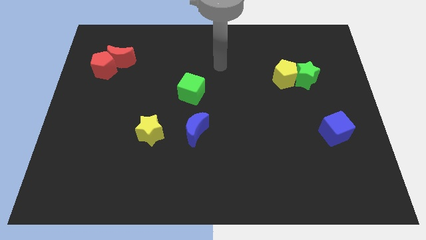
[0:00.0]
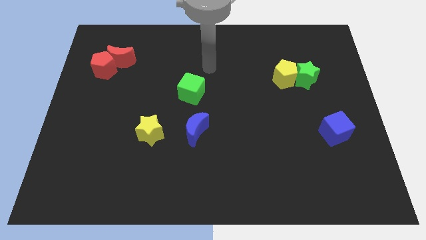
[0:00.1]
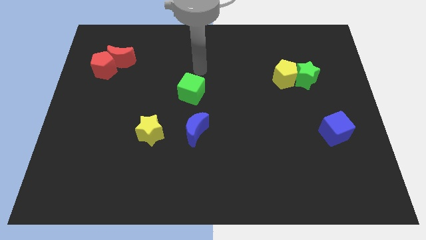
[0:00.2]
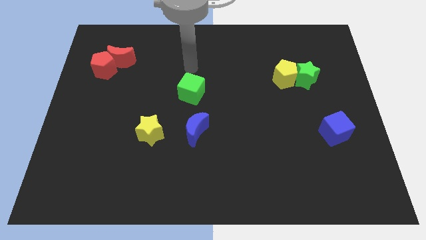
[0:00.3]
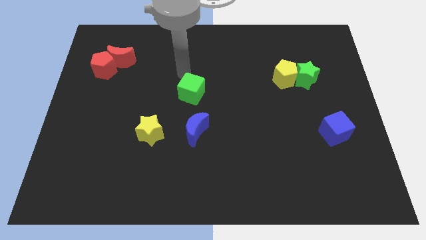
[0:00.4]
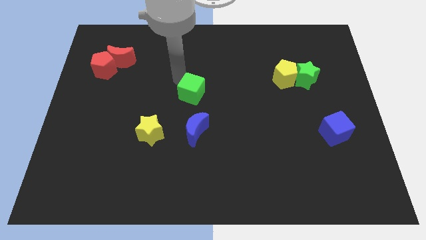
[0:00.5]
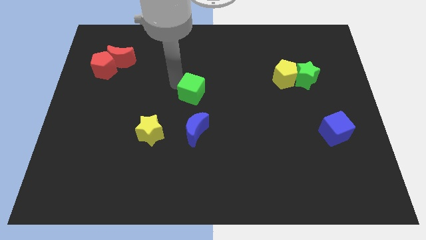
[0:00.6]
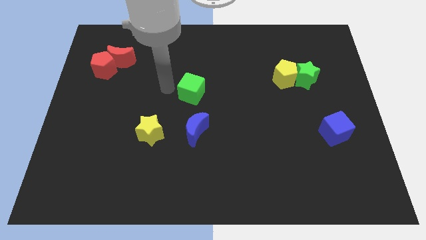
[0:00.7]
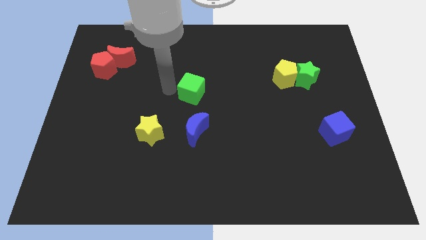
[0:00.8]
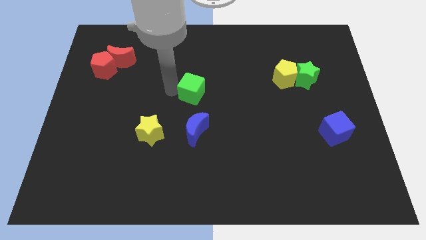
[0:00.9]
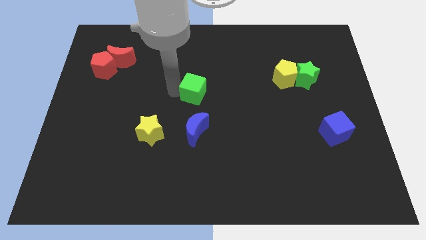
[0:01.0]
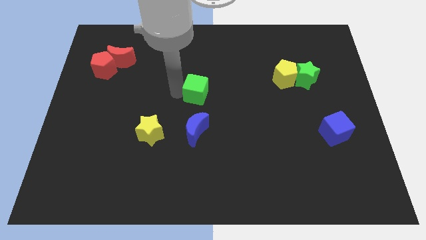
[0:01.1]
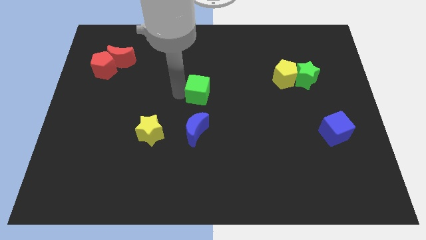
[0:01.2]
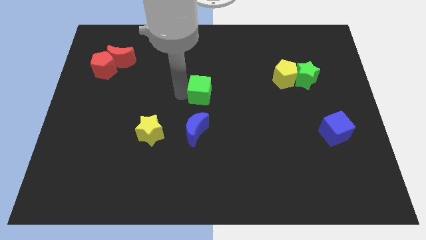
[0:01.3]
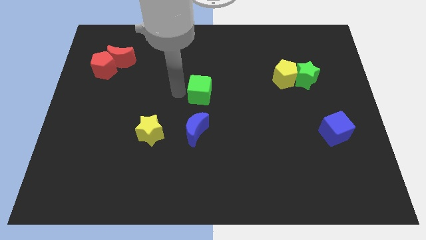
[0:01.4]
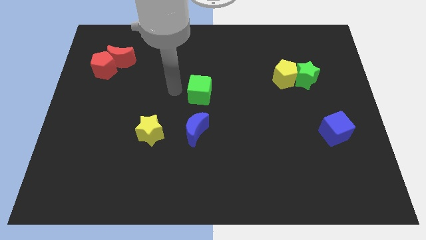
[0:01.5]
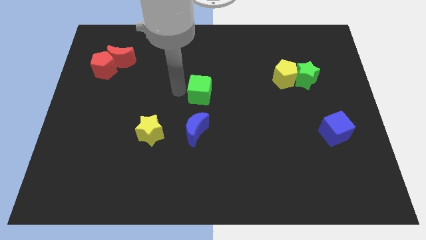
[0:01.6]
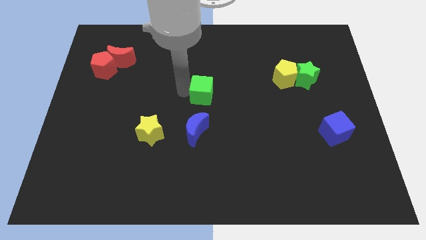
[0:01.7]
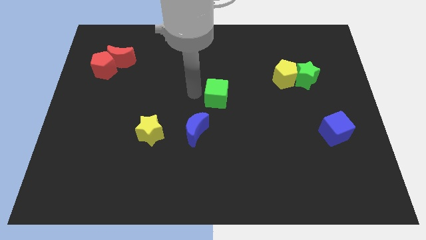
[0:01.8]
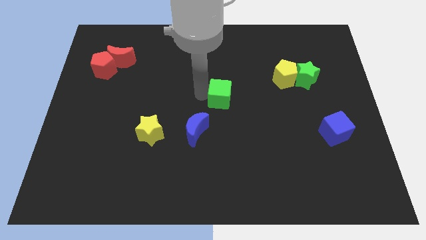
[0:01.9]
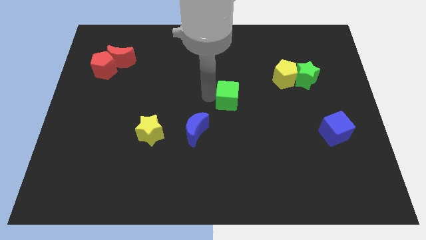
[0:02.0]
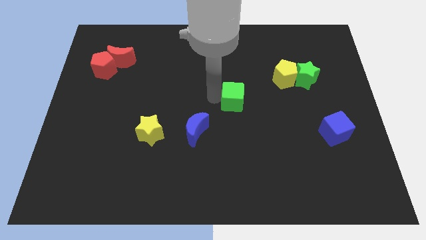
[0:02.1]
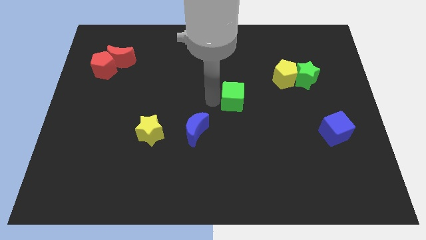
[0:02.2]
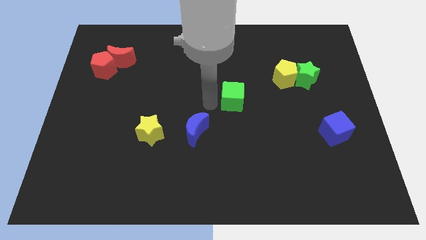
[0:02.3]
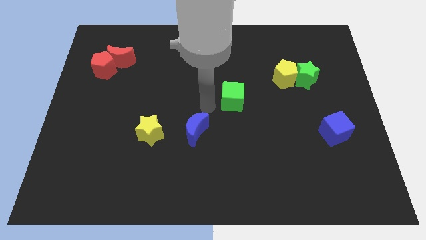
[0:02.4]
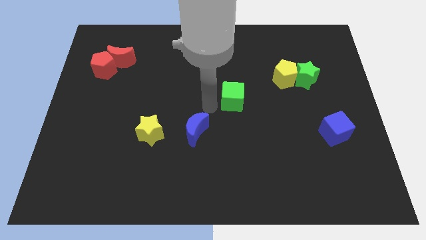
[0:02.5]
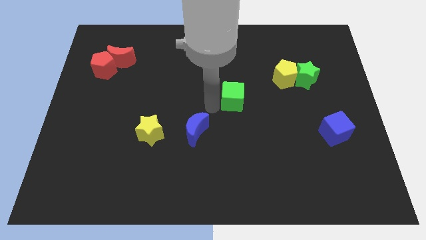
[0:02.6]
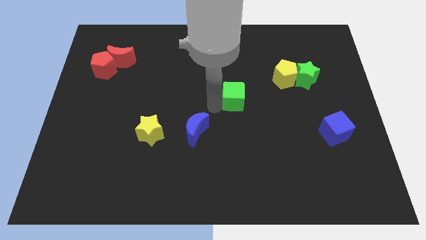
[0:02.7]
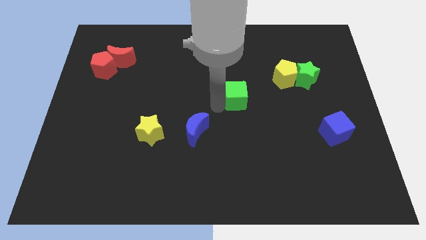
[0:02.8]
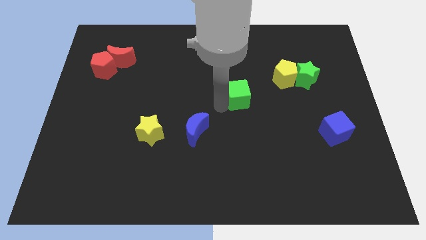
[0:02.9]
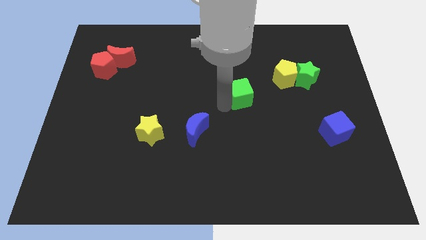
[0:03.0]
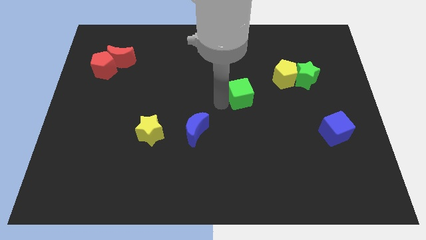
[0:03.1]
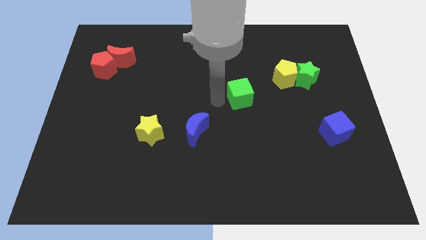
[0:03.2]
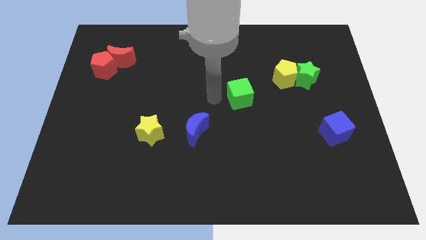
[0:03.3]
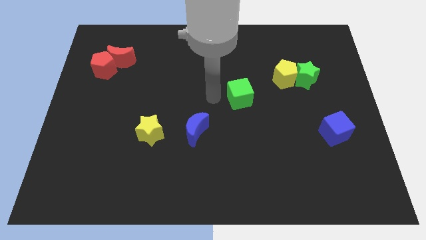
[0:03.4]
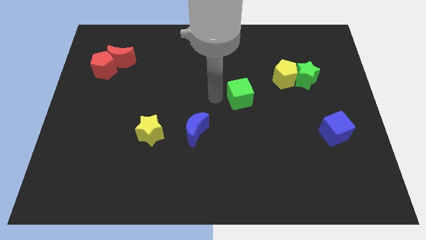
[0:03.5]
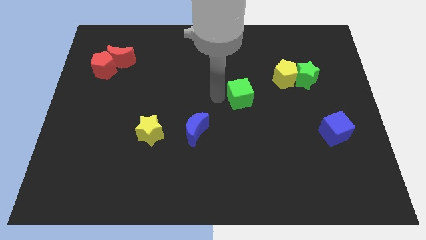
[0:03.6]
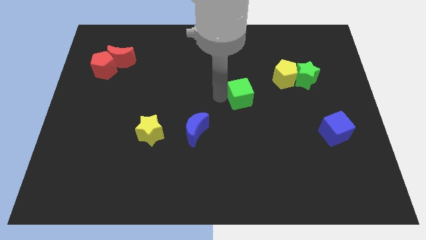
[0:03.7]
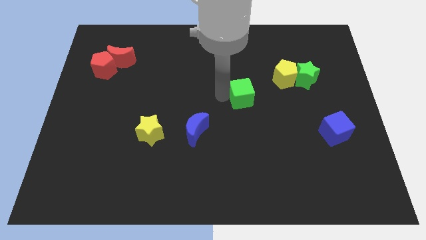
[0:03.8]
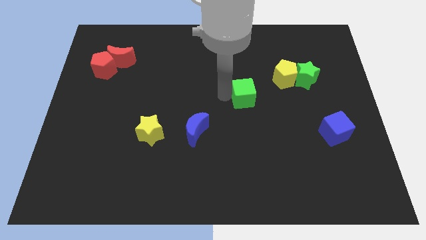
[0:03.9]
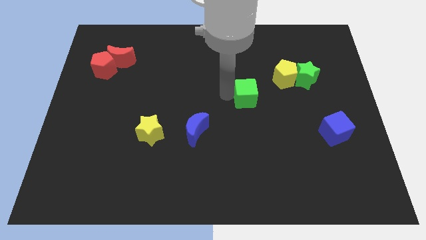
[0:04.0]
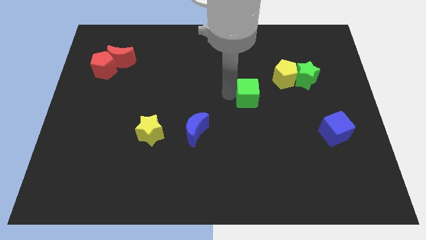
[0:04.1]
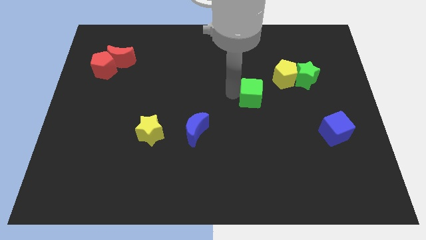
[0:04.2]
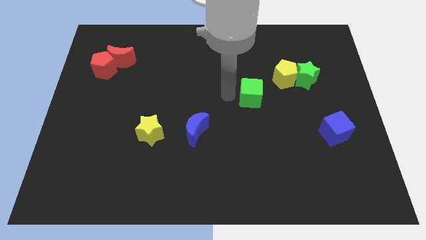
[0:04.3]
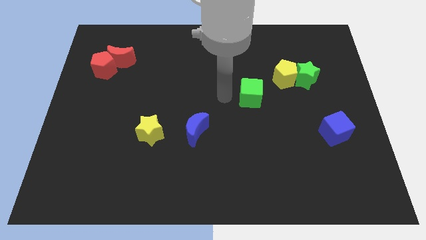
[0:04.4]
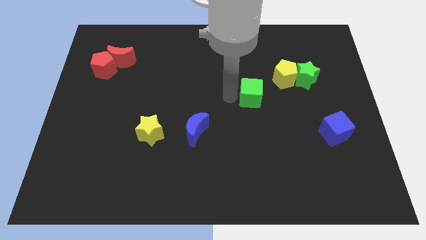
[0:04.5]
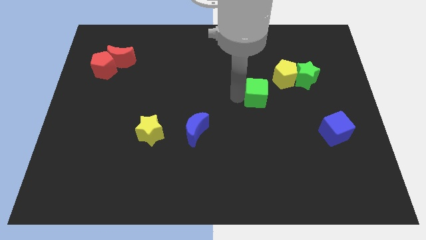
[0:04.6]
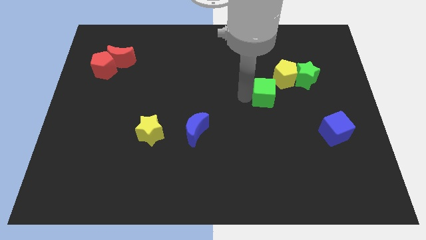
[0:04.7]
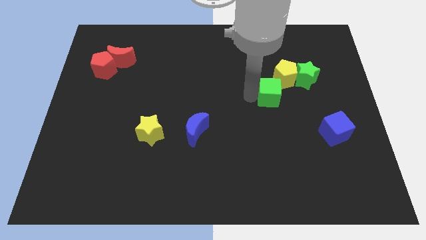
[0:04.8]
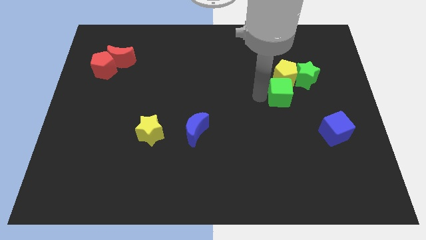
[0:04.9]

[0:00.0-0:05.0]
push the green cube right

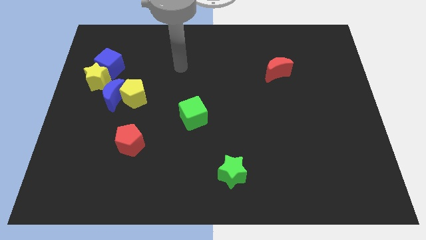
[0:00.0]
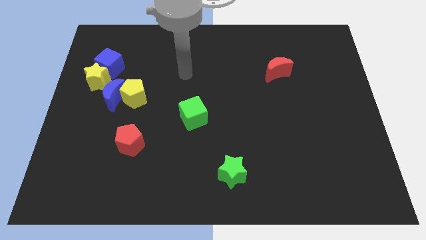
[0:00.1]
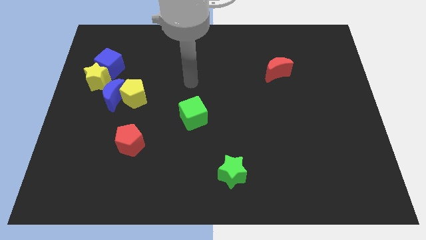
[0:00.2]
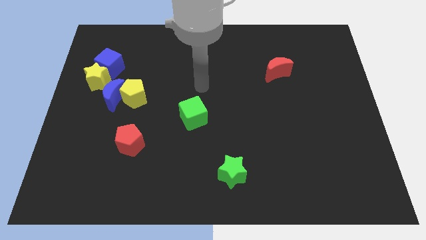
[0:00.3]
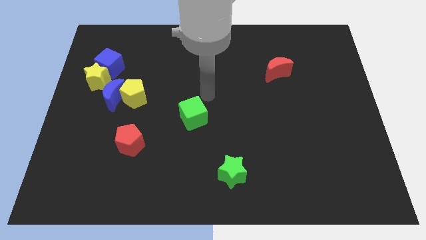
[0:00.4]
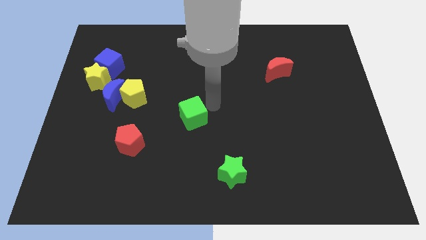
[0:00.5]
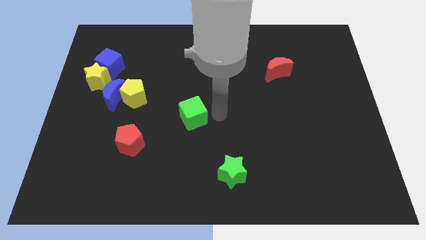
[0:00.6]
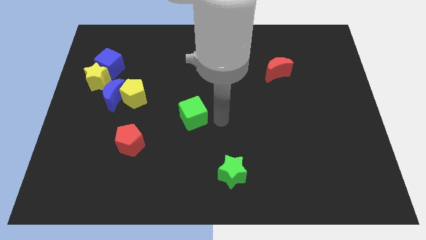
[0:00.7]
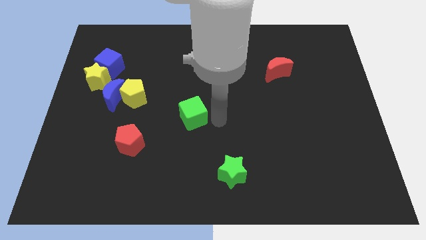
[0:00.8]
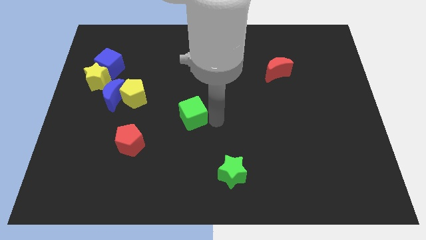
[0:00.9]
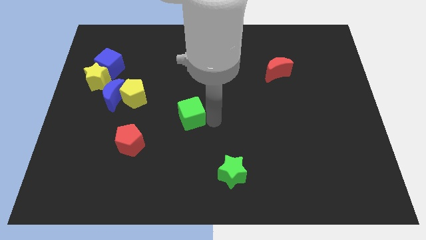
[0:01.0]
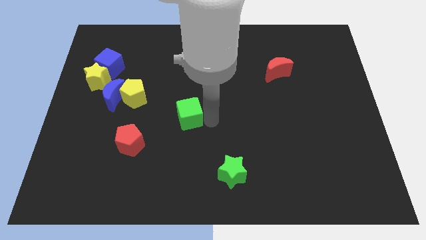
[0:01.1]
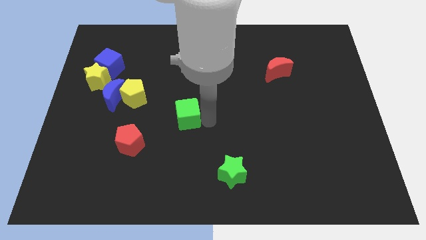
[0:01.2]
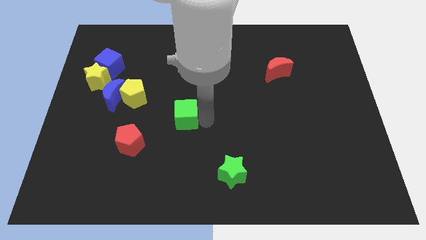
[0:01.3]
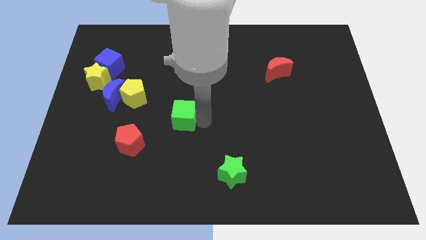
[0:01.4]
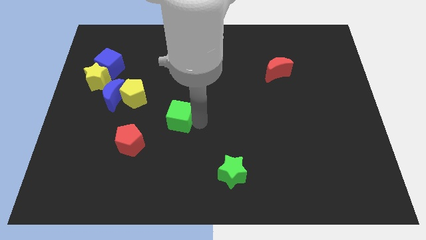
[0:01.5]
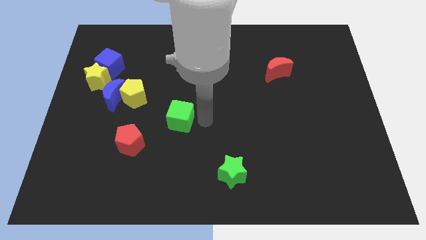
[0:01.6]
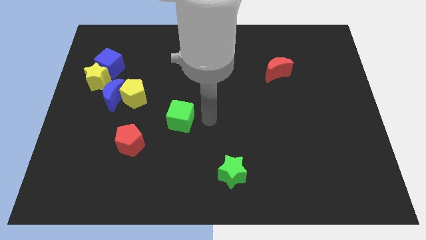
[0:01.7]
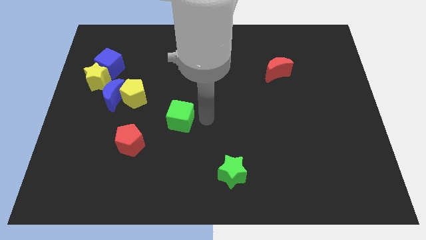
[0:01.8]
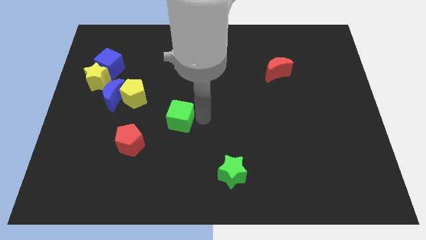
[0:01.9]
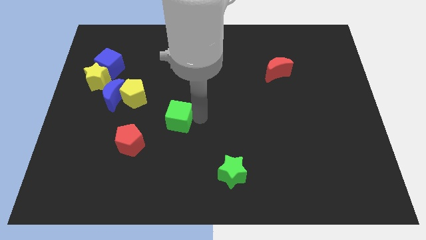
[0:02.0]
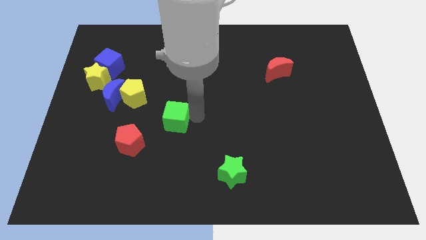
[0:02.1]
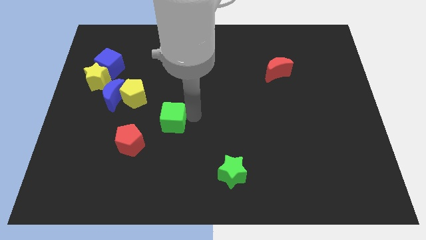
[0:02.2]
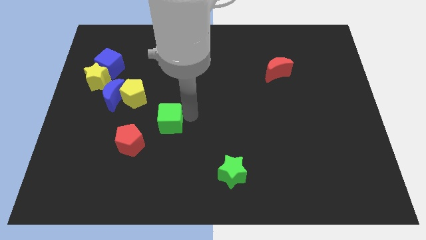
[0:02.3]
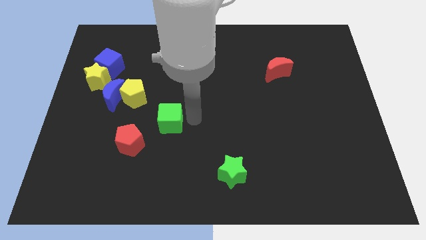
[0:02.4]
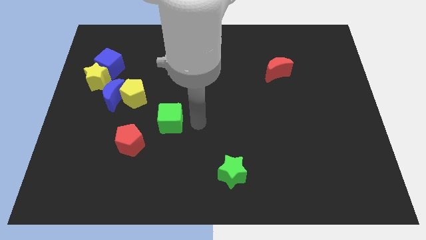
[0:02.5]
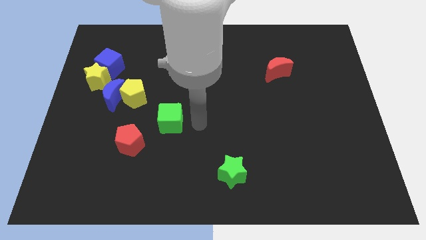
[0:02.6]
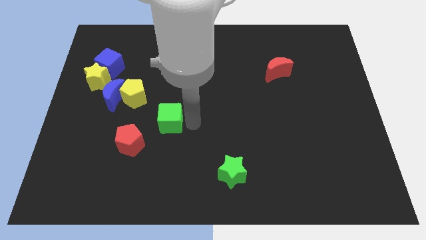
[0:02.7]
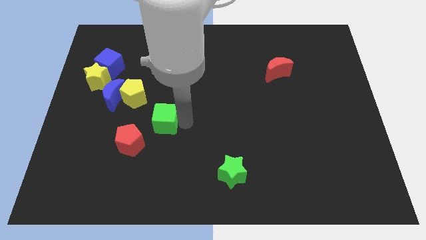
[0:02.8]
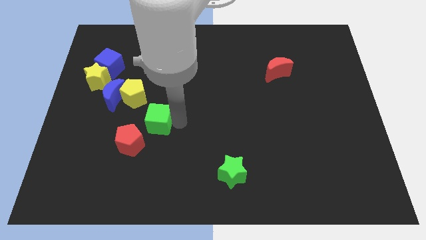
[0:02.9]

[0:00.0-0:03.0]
push the green cube slightly left

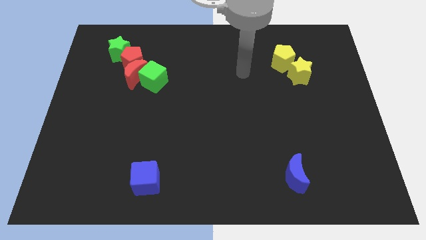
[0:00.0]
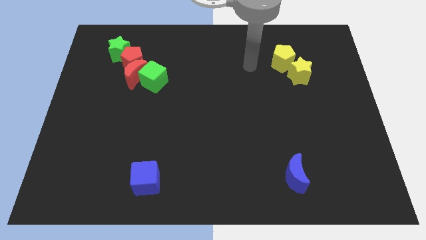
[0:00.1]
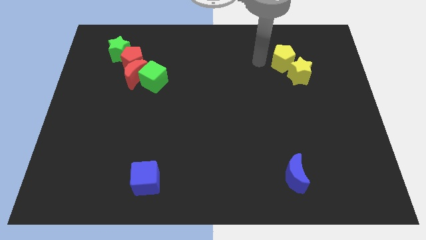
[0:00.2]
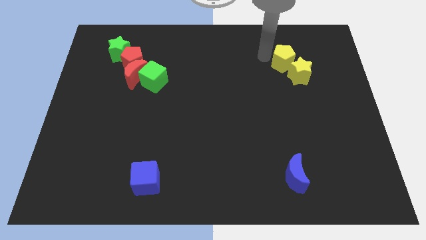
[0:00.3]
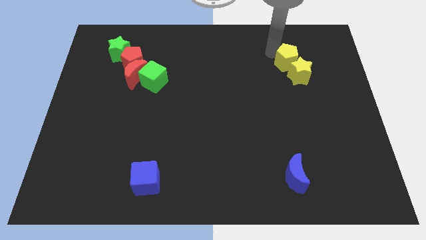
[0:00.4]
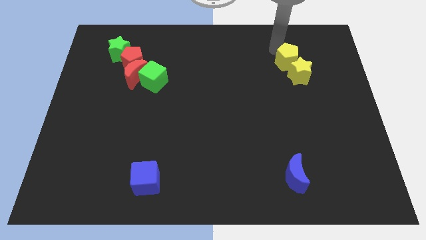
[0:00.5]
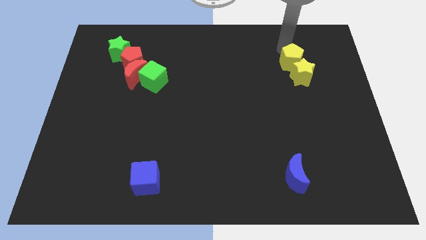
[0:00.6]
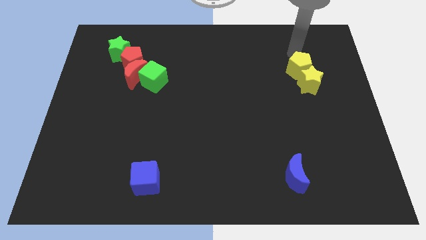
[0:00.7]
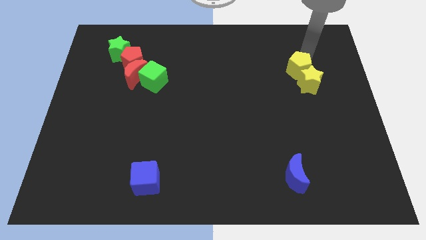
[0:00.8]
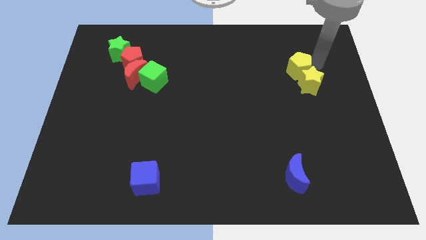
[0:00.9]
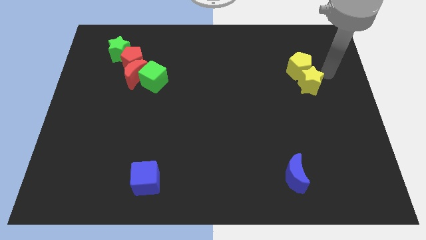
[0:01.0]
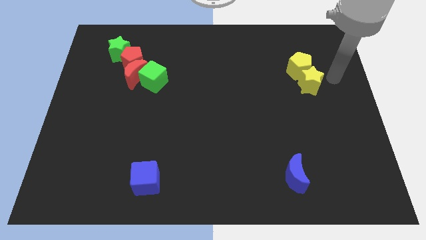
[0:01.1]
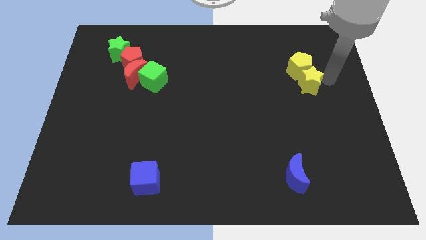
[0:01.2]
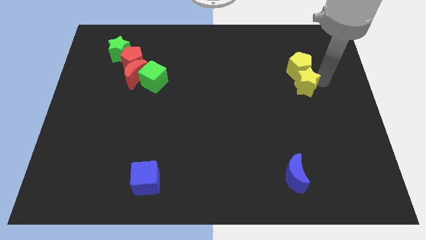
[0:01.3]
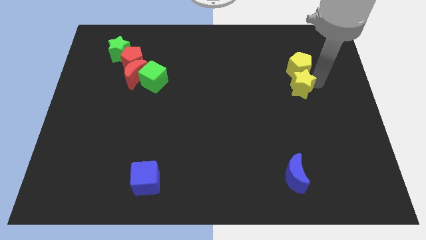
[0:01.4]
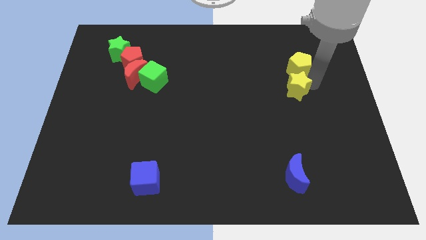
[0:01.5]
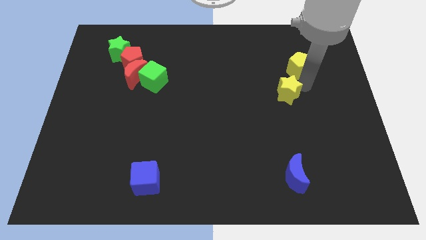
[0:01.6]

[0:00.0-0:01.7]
slightly slide the yellow star down and to the left diagonally
